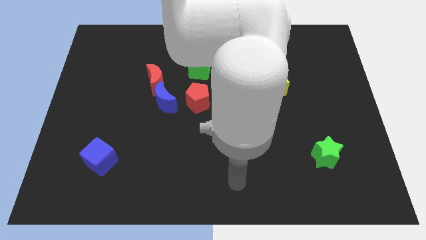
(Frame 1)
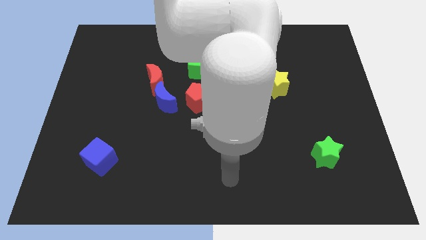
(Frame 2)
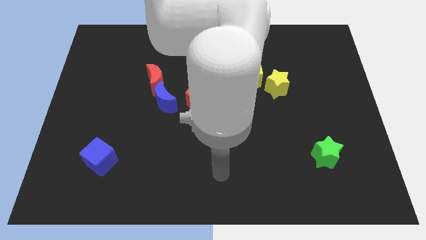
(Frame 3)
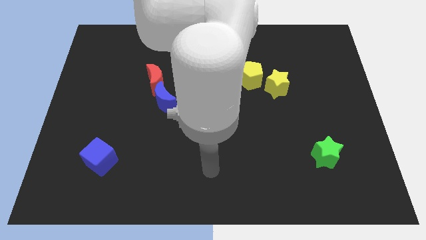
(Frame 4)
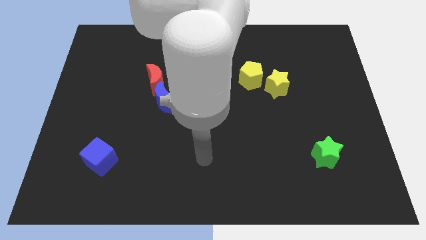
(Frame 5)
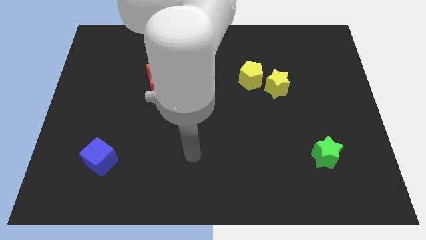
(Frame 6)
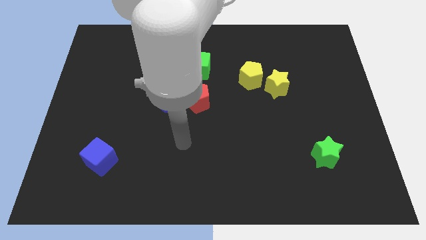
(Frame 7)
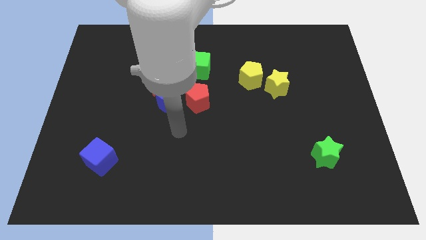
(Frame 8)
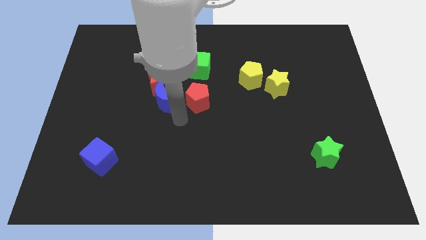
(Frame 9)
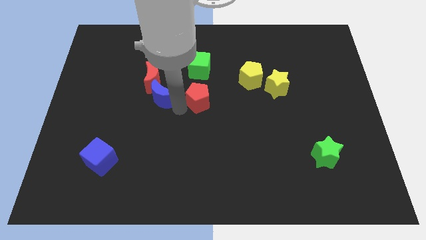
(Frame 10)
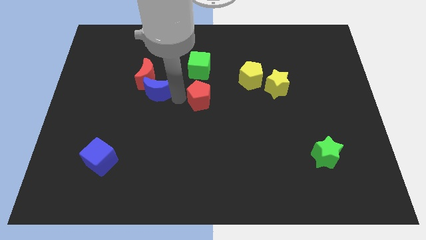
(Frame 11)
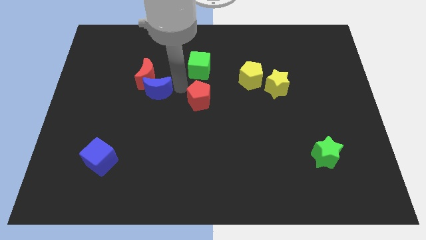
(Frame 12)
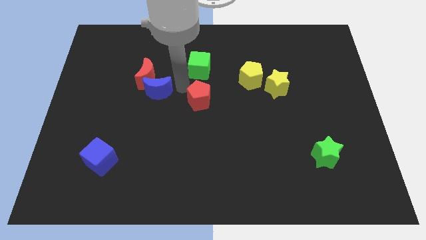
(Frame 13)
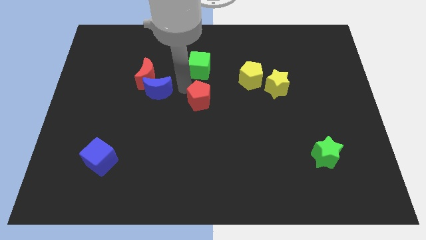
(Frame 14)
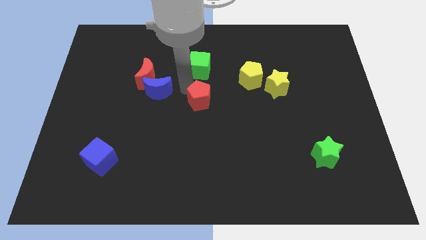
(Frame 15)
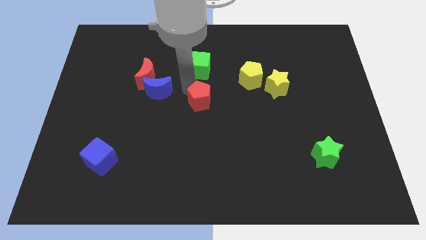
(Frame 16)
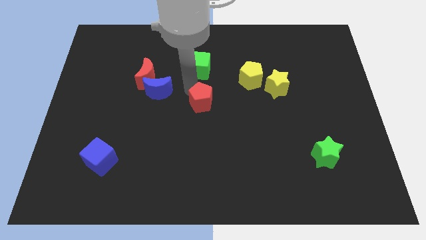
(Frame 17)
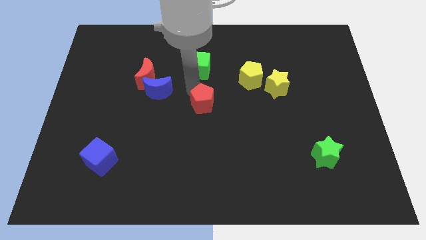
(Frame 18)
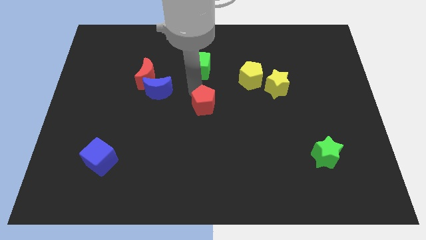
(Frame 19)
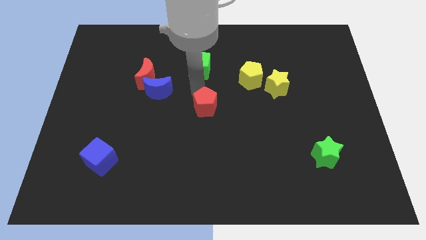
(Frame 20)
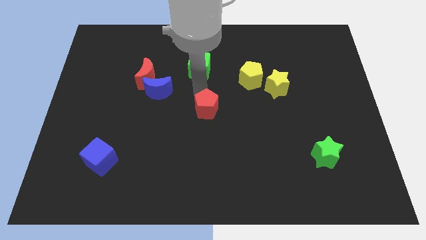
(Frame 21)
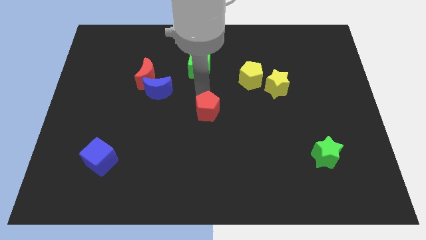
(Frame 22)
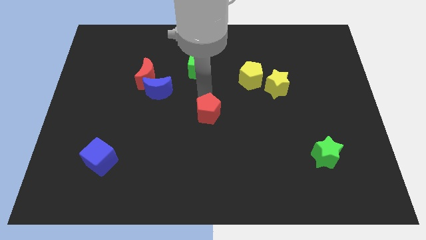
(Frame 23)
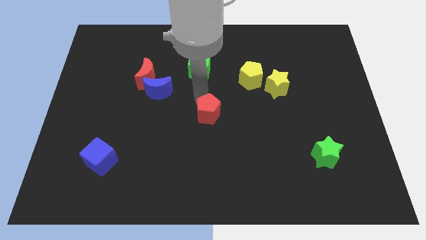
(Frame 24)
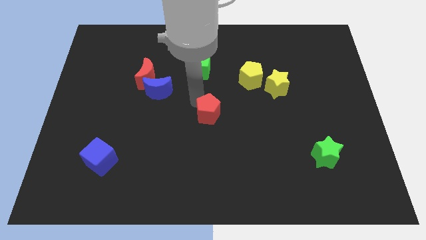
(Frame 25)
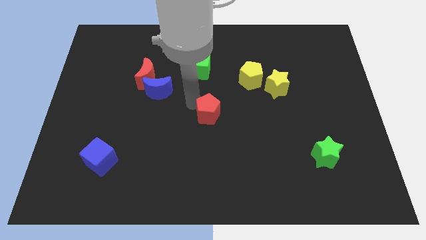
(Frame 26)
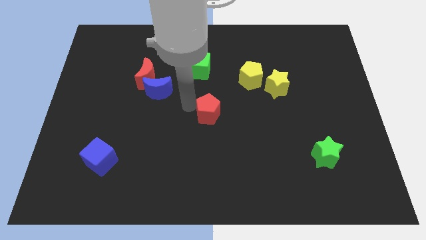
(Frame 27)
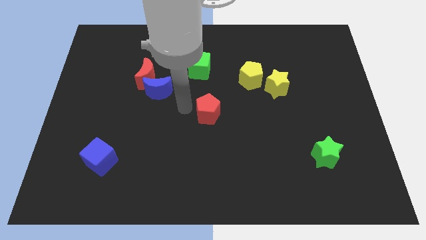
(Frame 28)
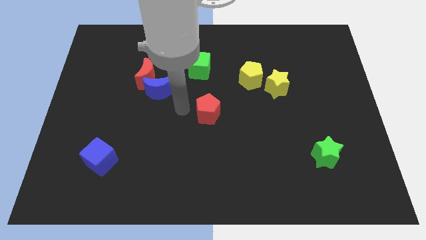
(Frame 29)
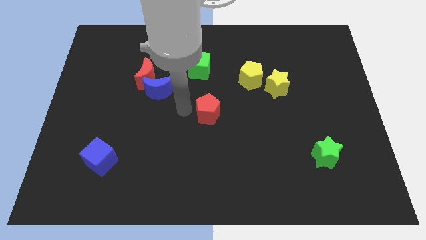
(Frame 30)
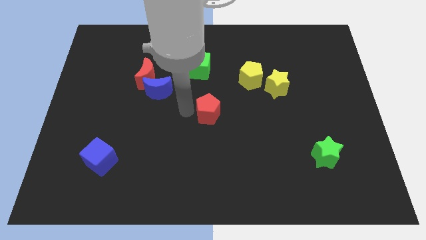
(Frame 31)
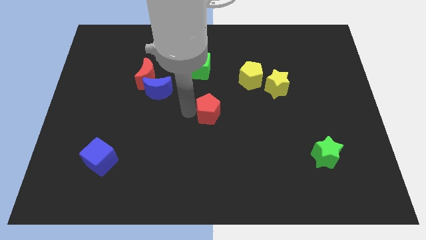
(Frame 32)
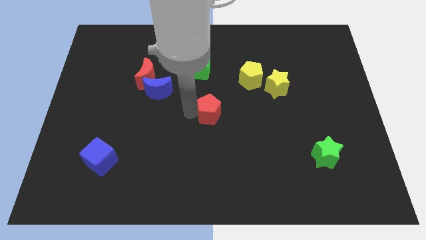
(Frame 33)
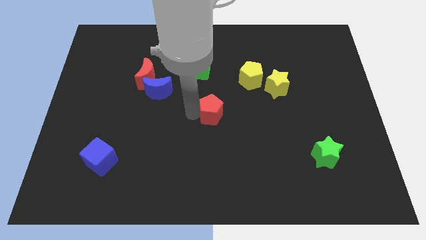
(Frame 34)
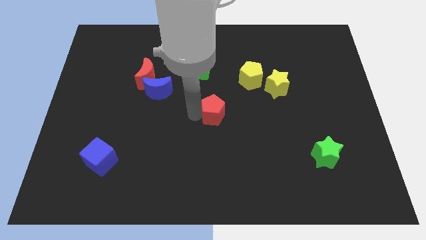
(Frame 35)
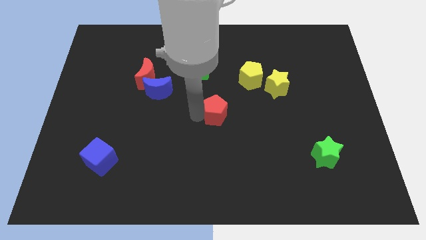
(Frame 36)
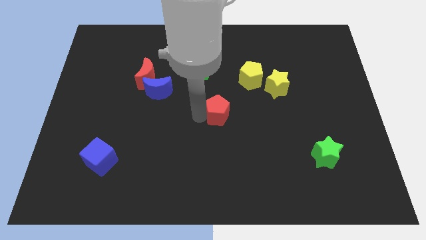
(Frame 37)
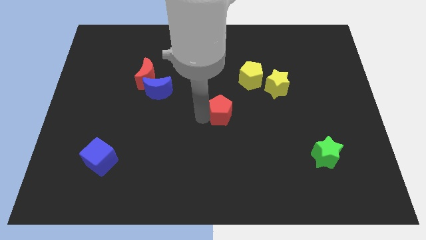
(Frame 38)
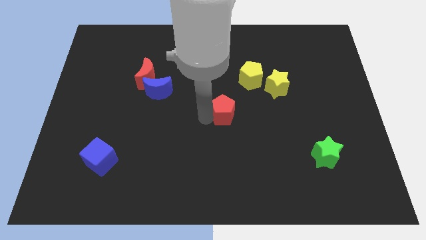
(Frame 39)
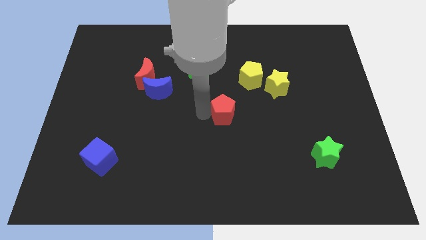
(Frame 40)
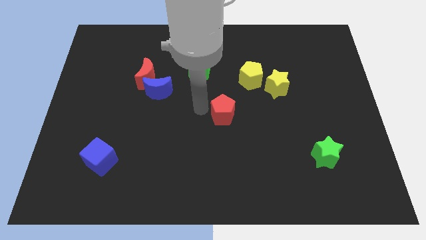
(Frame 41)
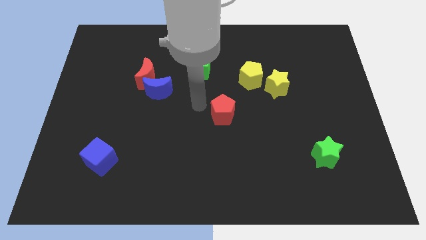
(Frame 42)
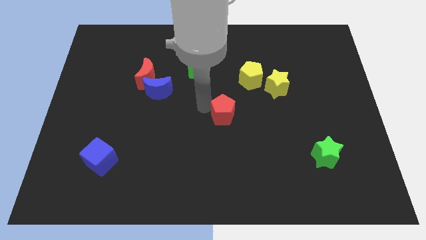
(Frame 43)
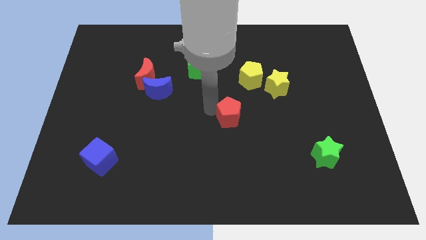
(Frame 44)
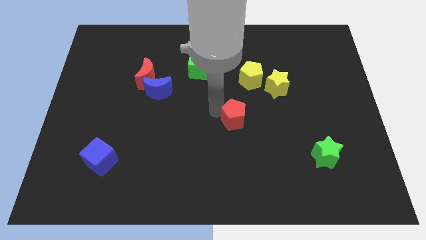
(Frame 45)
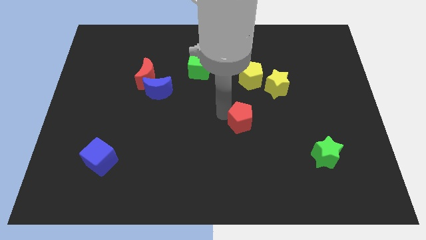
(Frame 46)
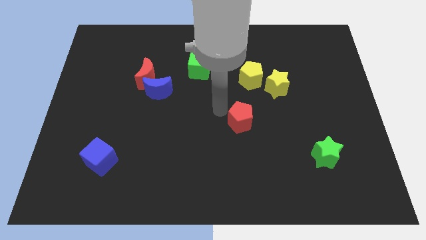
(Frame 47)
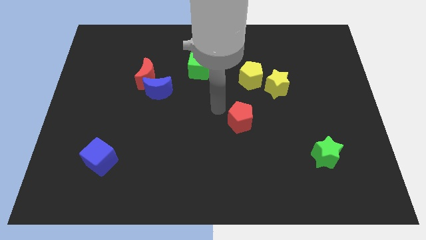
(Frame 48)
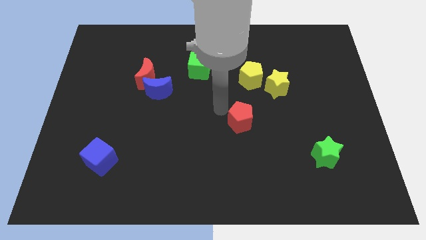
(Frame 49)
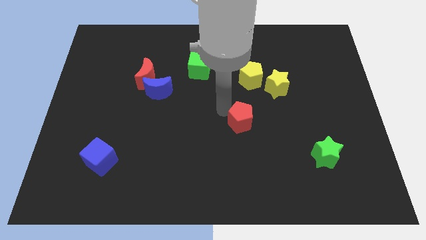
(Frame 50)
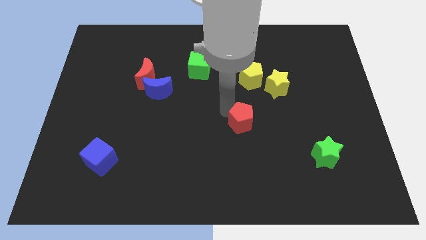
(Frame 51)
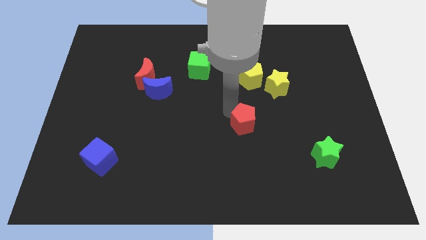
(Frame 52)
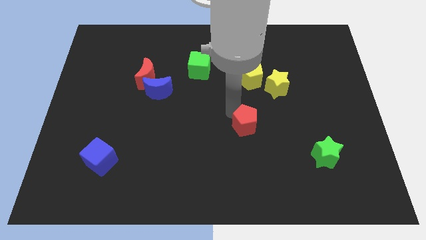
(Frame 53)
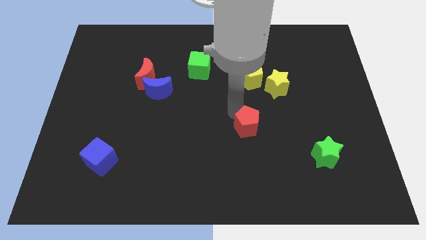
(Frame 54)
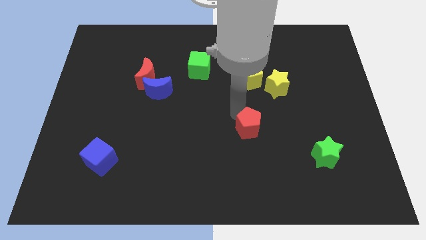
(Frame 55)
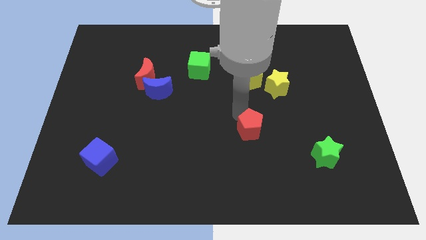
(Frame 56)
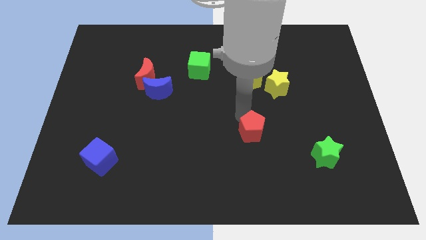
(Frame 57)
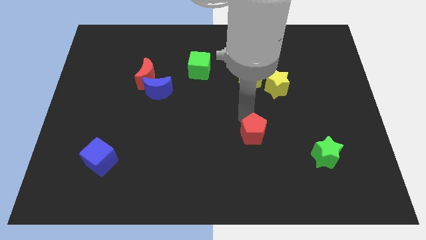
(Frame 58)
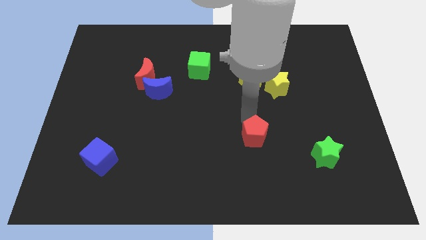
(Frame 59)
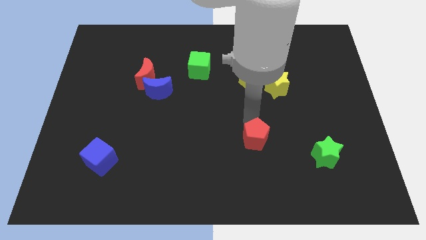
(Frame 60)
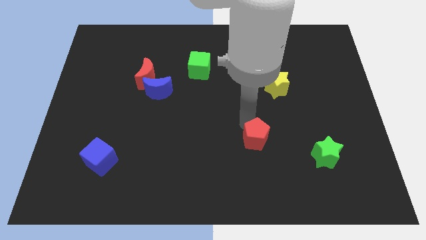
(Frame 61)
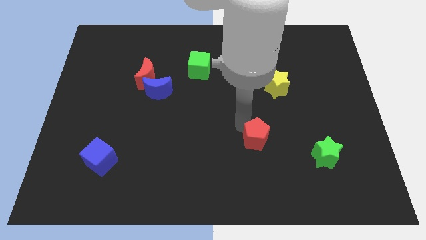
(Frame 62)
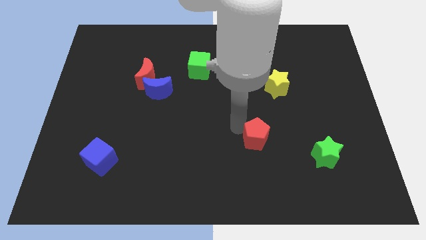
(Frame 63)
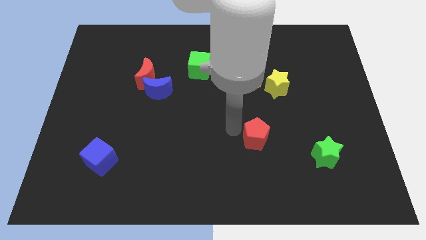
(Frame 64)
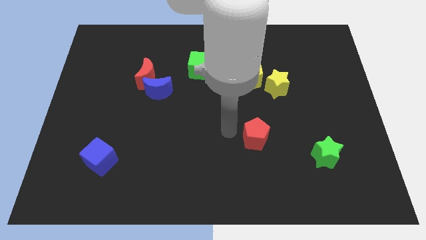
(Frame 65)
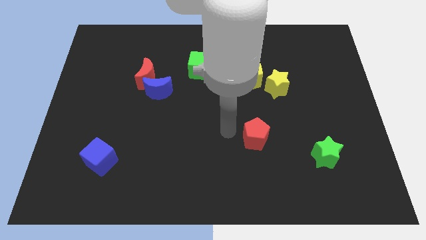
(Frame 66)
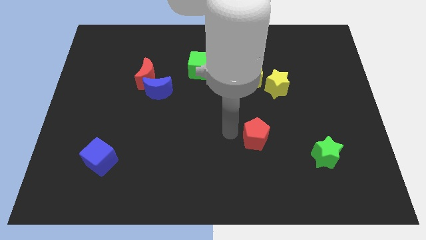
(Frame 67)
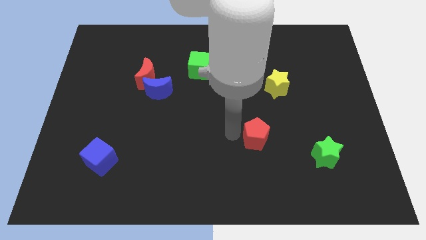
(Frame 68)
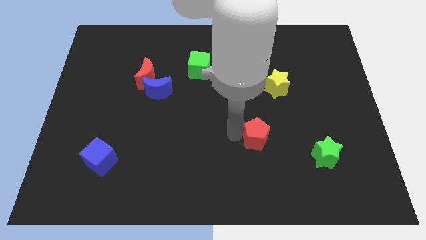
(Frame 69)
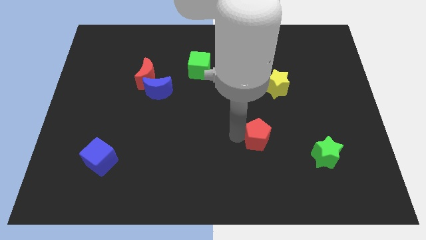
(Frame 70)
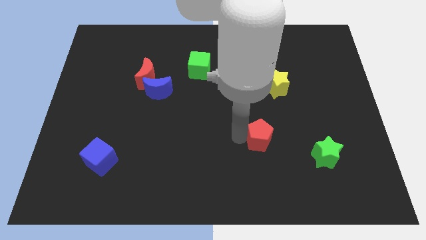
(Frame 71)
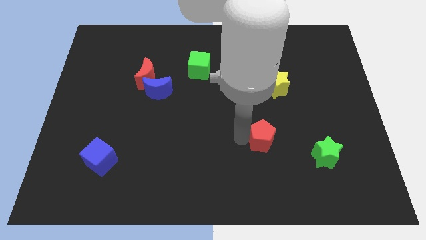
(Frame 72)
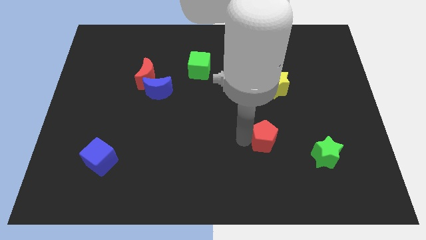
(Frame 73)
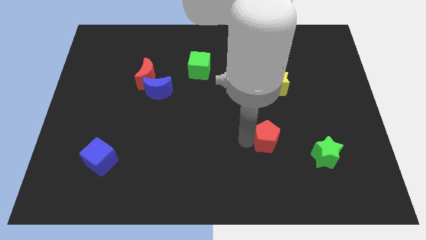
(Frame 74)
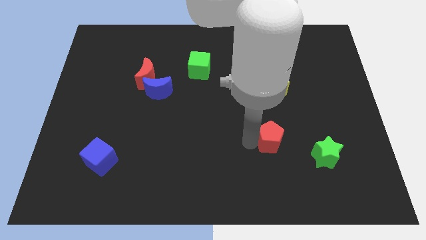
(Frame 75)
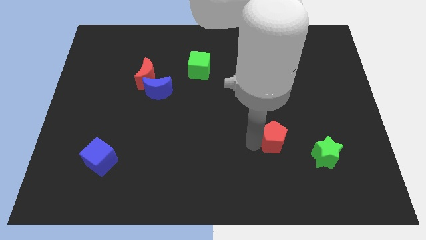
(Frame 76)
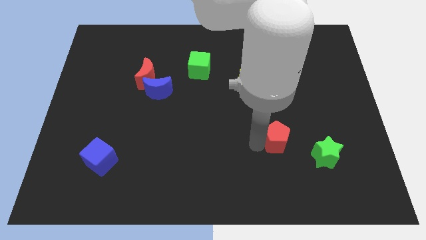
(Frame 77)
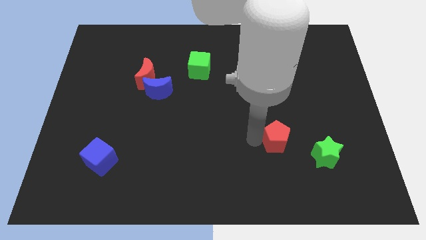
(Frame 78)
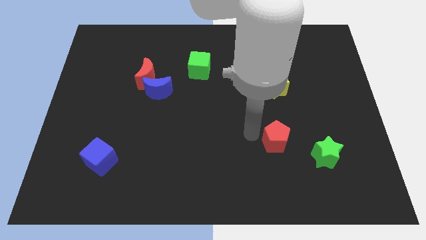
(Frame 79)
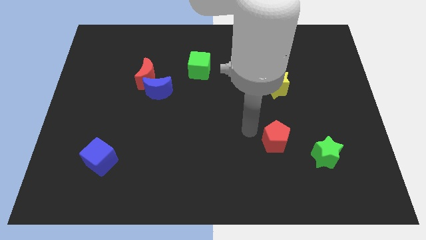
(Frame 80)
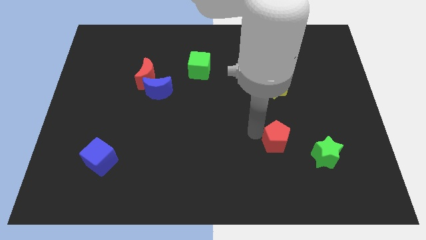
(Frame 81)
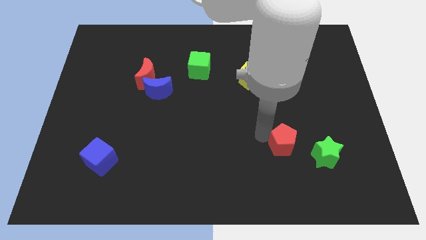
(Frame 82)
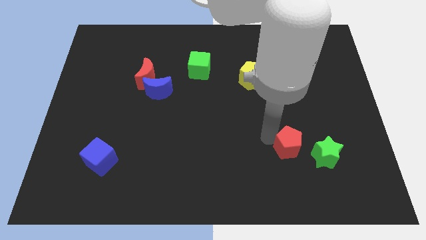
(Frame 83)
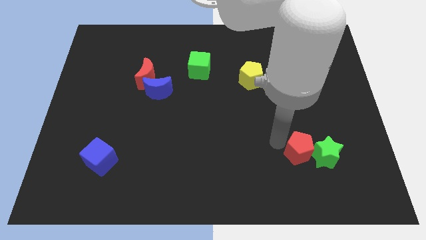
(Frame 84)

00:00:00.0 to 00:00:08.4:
slide the red pentagon to the green star
